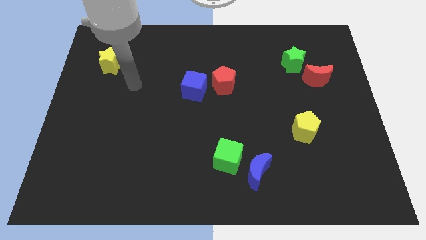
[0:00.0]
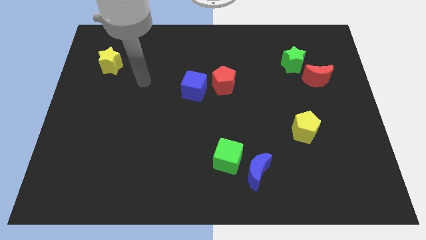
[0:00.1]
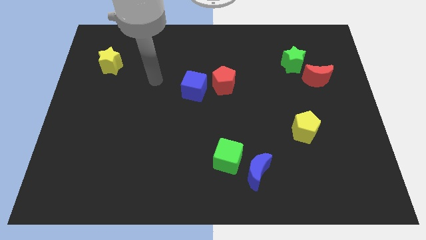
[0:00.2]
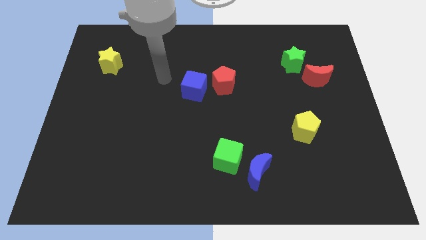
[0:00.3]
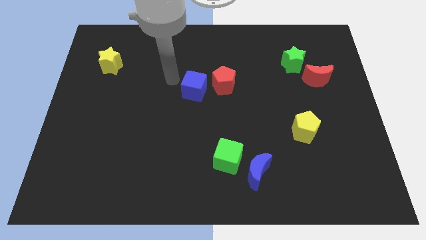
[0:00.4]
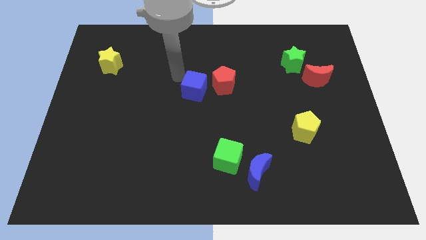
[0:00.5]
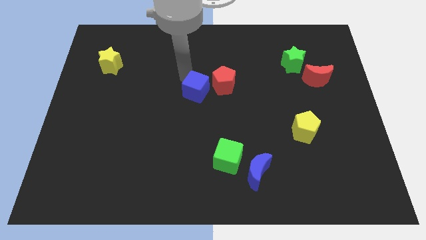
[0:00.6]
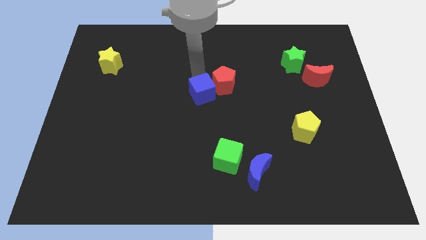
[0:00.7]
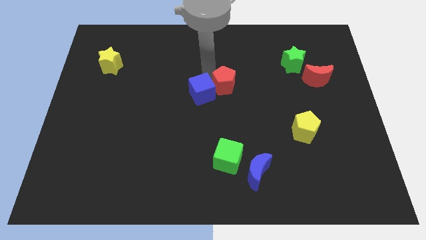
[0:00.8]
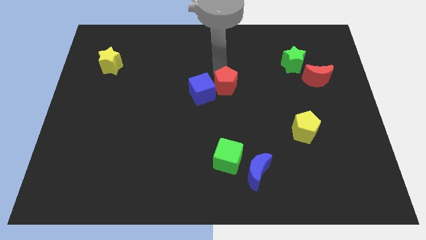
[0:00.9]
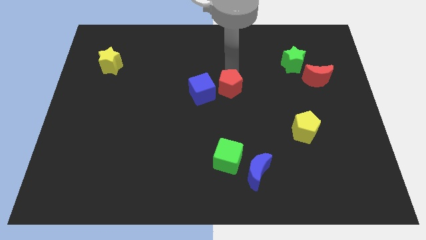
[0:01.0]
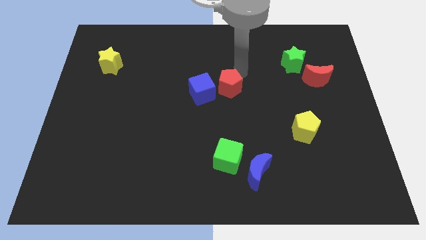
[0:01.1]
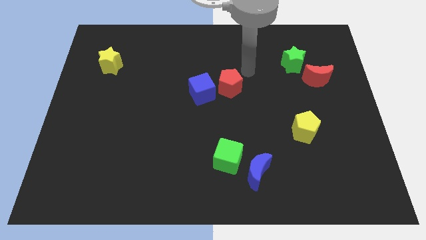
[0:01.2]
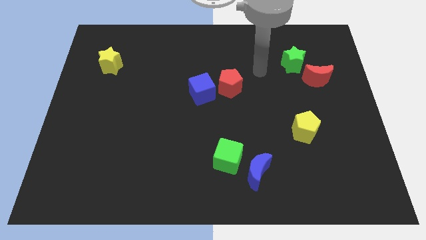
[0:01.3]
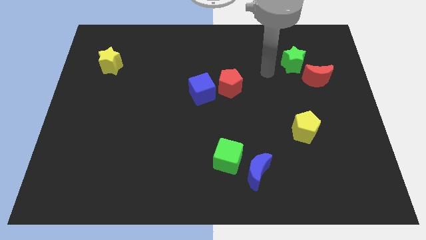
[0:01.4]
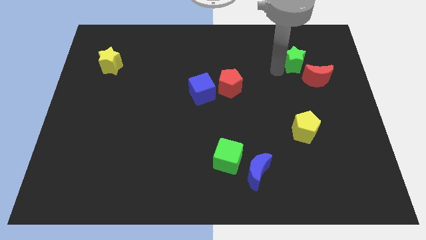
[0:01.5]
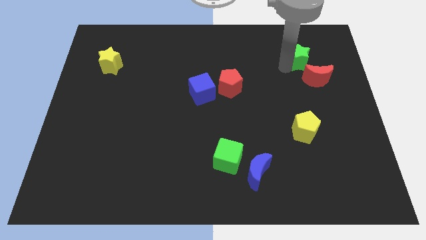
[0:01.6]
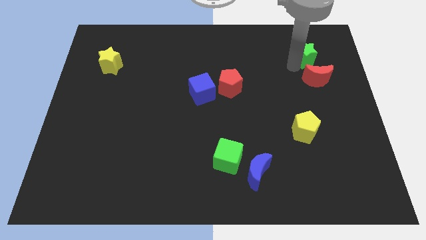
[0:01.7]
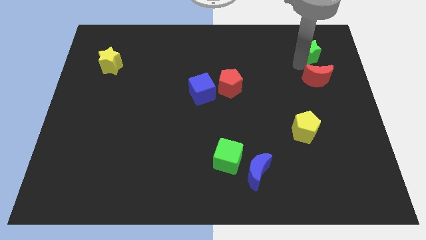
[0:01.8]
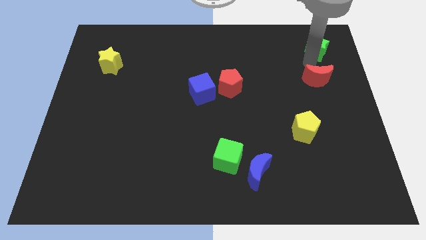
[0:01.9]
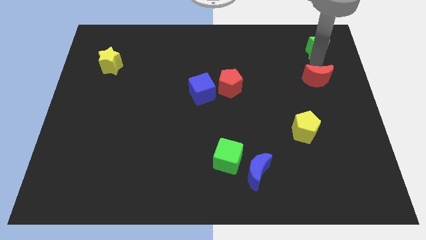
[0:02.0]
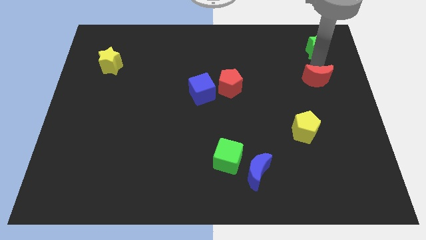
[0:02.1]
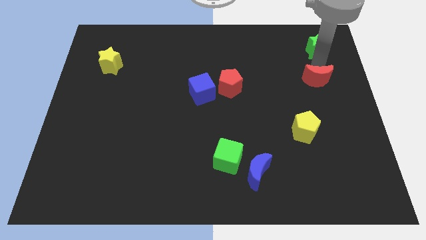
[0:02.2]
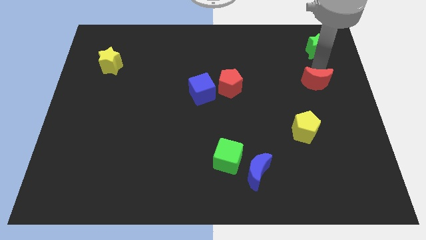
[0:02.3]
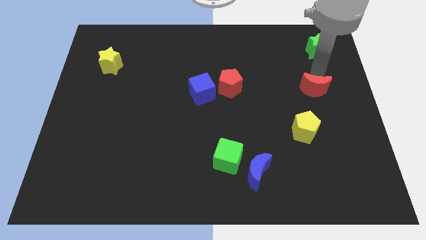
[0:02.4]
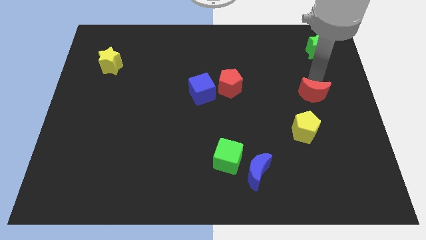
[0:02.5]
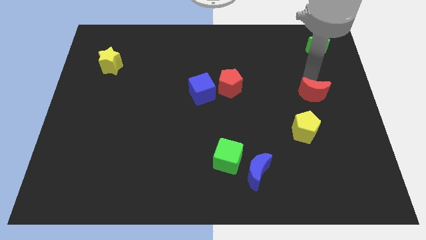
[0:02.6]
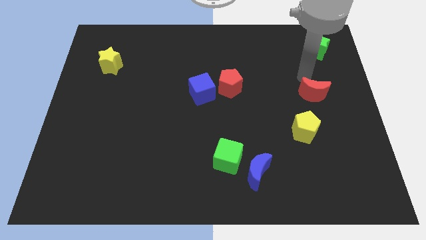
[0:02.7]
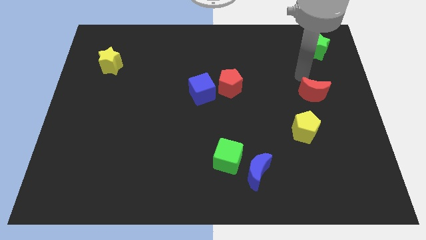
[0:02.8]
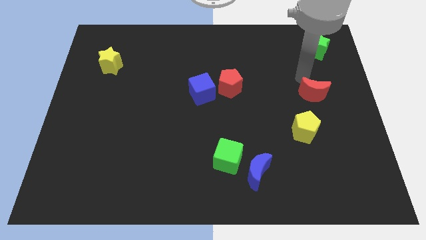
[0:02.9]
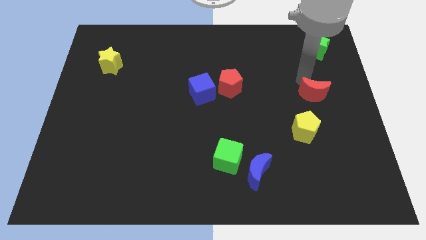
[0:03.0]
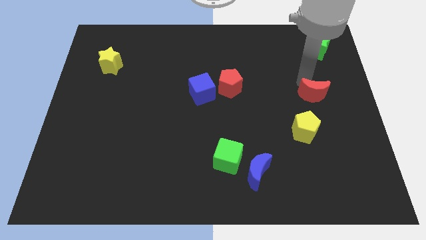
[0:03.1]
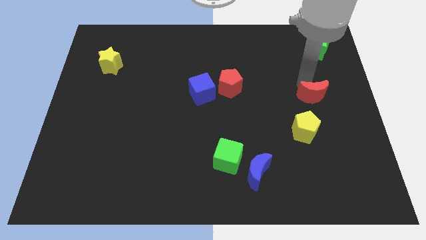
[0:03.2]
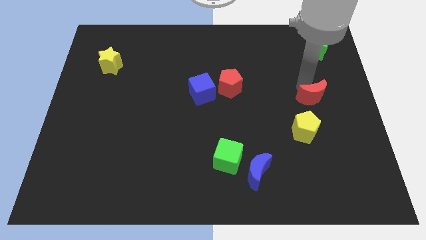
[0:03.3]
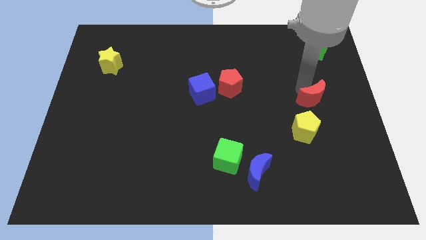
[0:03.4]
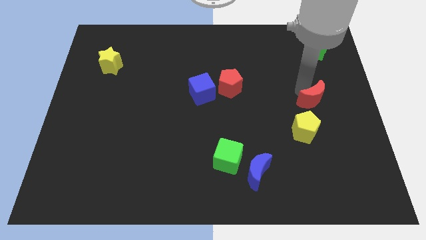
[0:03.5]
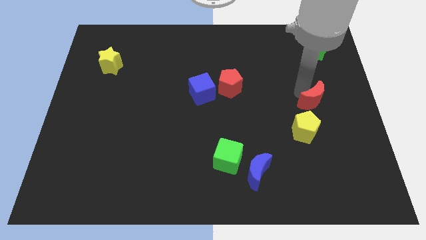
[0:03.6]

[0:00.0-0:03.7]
push the red moon somewhat downwards

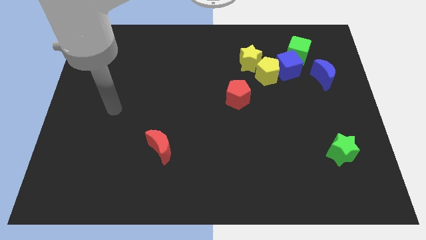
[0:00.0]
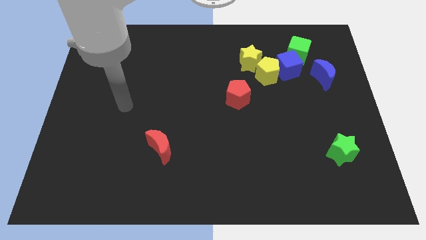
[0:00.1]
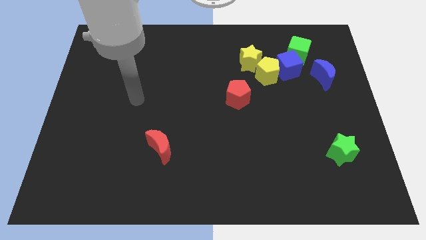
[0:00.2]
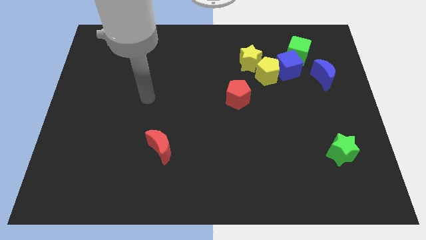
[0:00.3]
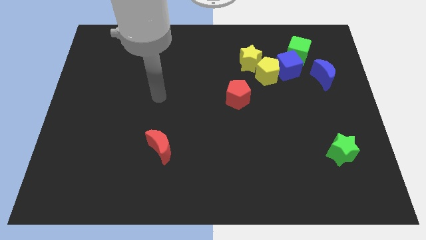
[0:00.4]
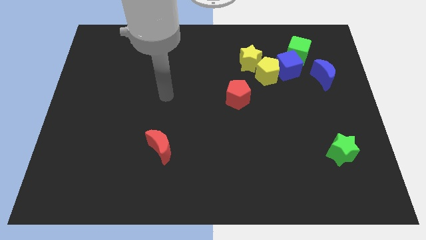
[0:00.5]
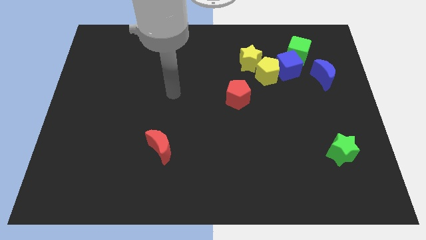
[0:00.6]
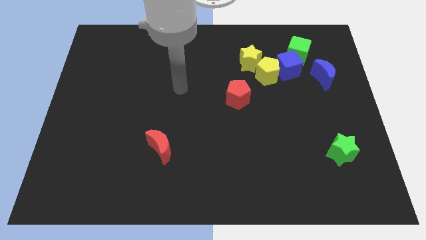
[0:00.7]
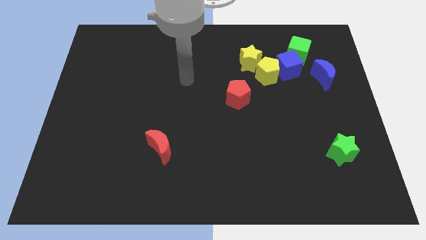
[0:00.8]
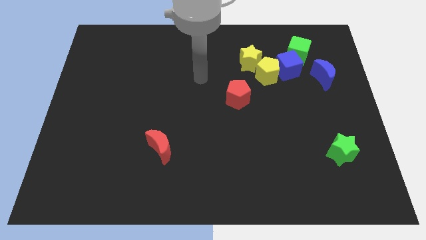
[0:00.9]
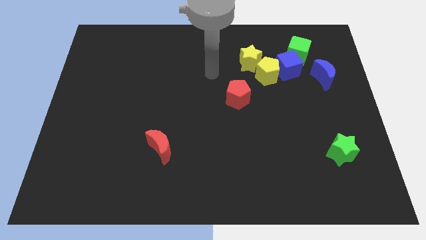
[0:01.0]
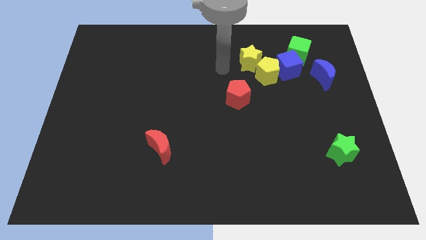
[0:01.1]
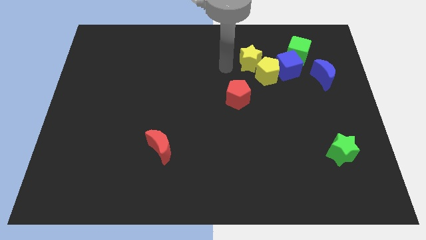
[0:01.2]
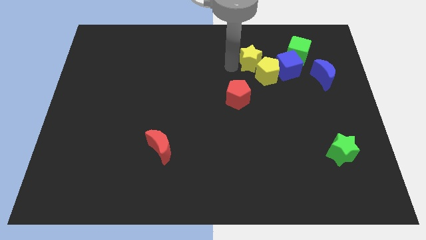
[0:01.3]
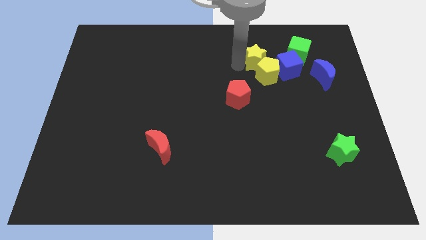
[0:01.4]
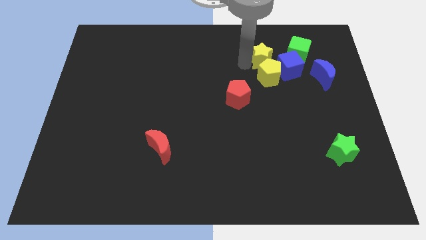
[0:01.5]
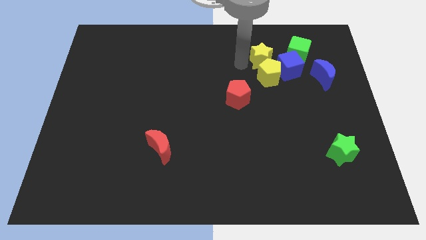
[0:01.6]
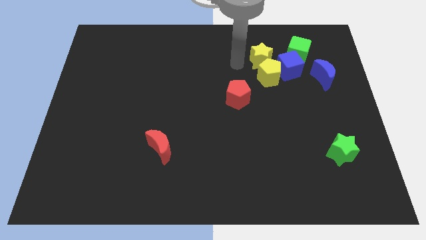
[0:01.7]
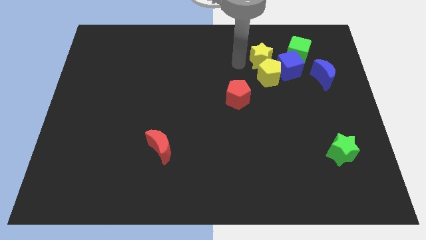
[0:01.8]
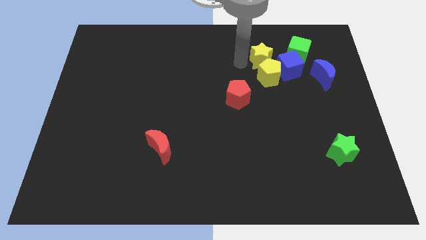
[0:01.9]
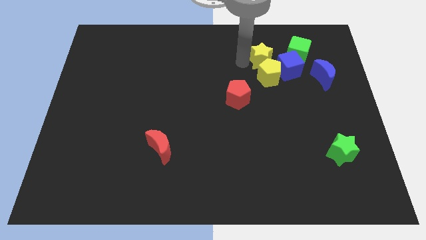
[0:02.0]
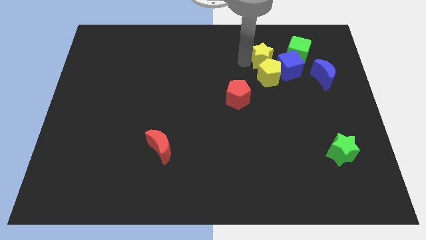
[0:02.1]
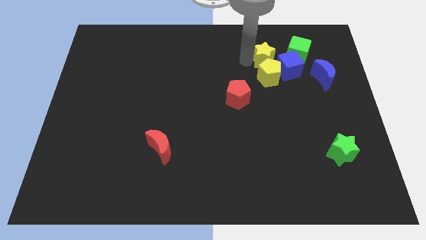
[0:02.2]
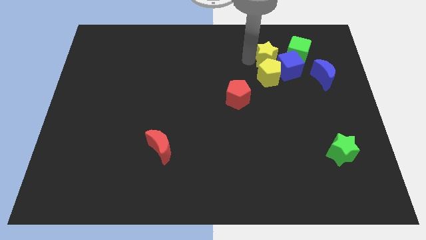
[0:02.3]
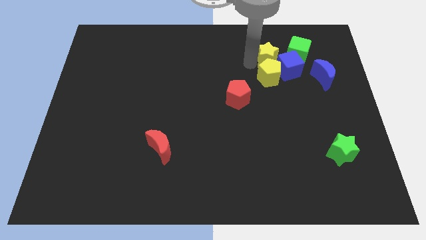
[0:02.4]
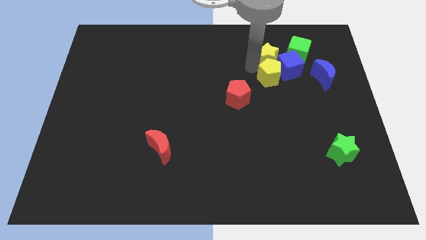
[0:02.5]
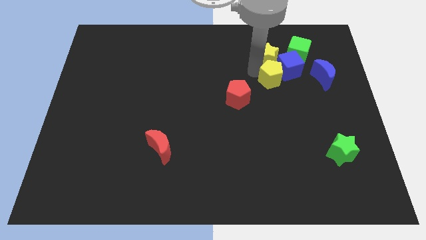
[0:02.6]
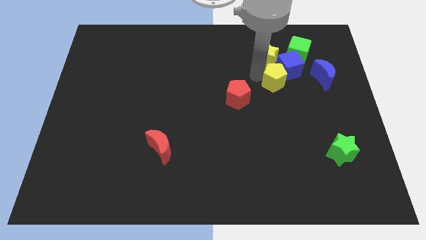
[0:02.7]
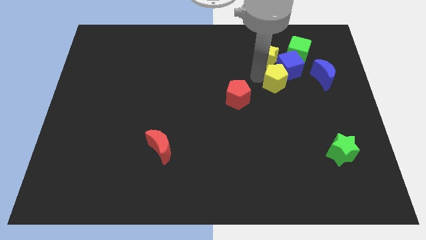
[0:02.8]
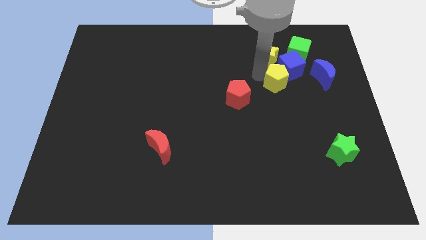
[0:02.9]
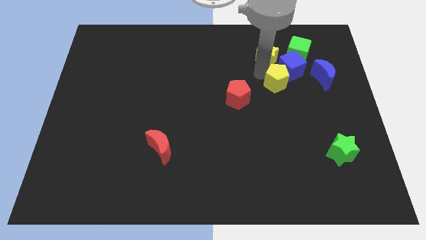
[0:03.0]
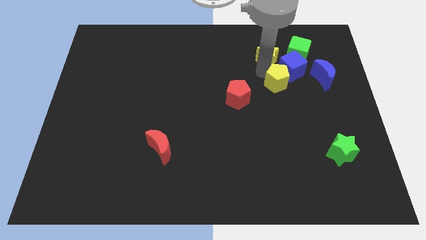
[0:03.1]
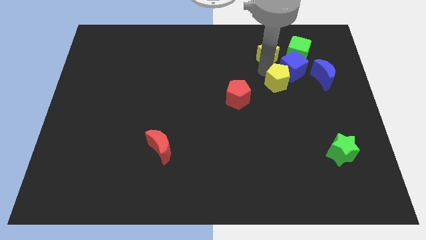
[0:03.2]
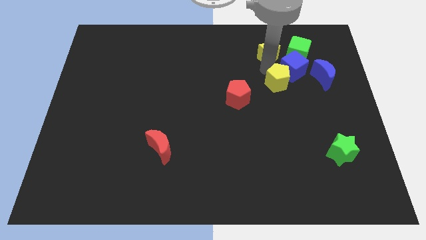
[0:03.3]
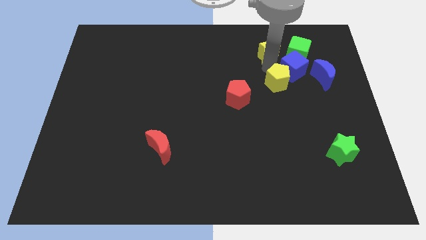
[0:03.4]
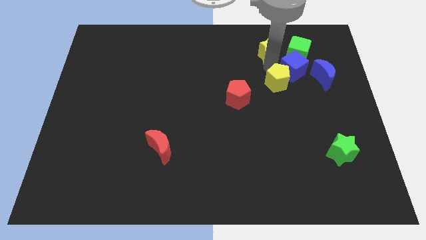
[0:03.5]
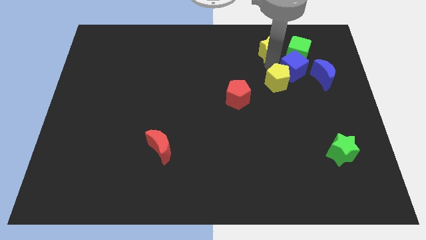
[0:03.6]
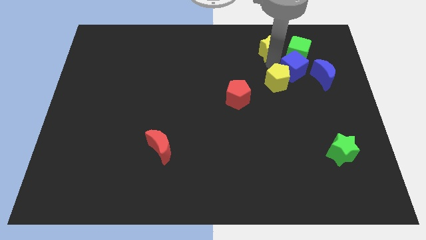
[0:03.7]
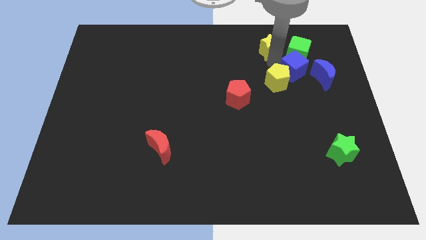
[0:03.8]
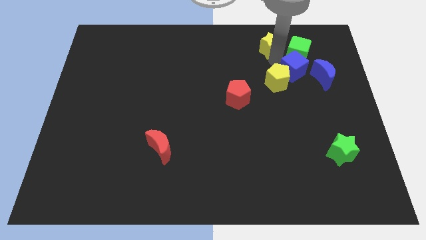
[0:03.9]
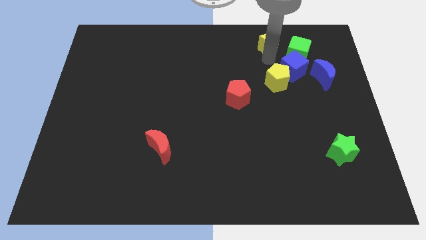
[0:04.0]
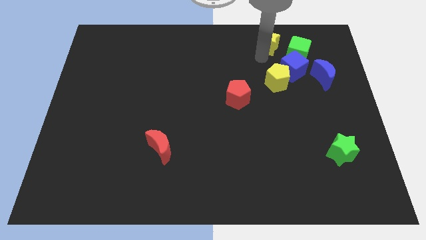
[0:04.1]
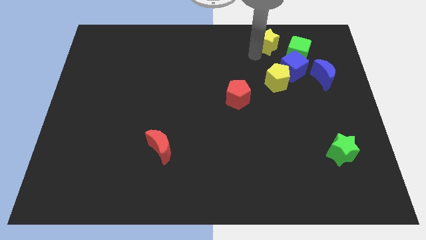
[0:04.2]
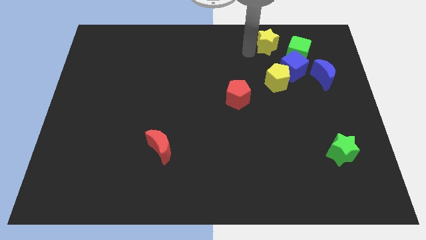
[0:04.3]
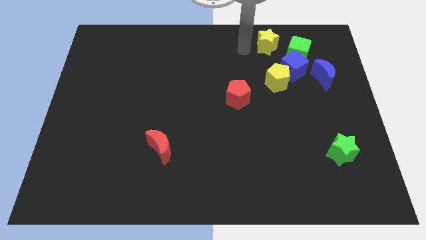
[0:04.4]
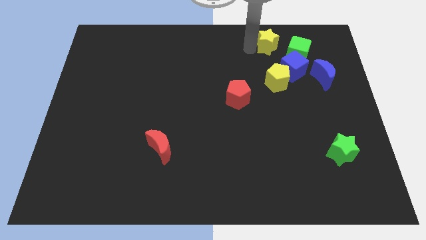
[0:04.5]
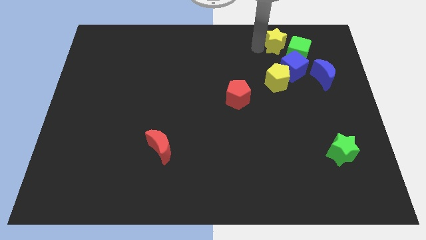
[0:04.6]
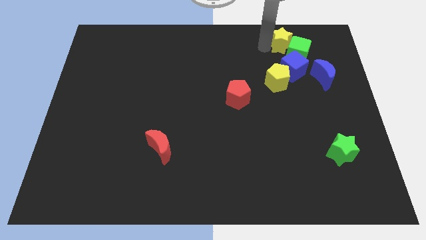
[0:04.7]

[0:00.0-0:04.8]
slide the yellow star slightly right
